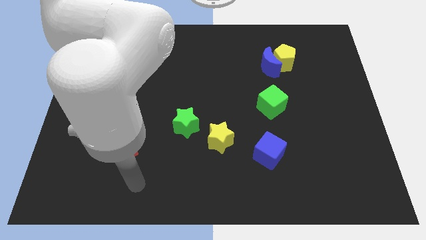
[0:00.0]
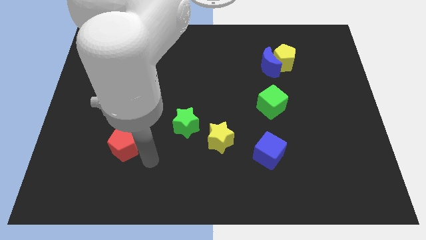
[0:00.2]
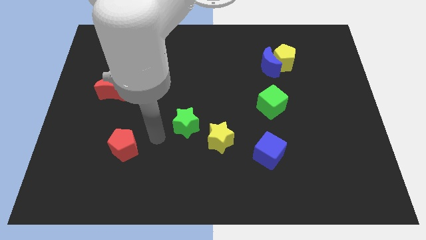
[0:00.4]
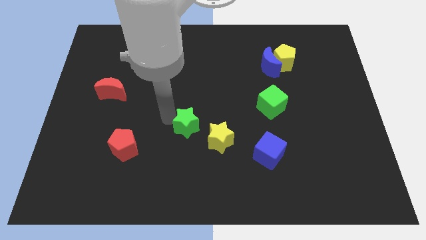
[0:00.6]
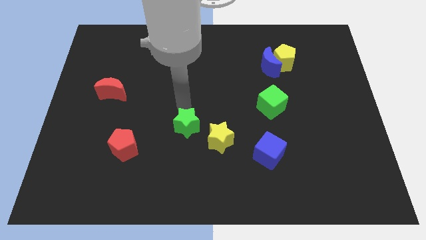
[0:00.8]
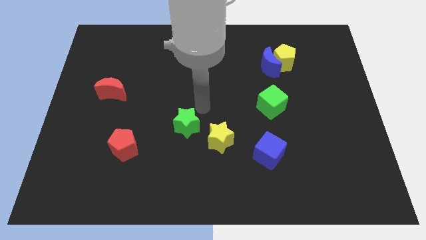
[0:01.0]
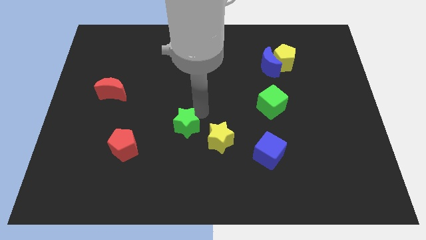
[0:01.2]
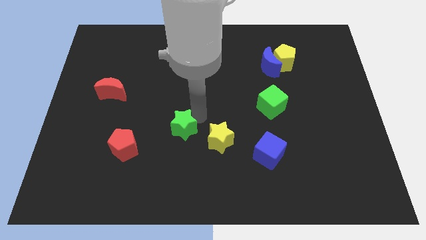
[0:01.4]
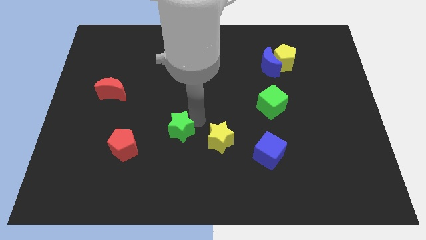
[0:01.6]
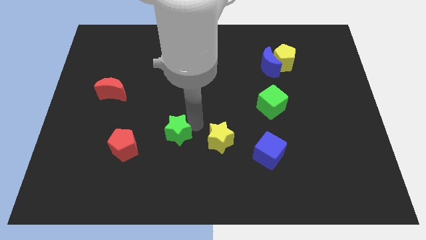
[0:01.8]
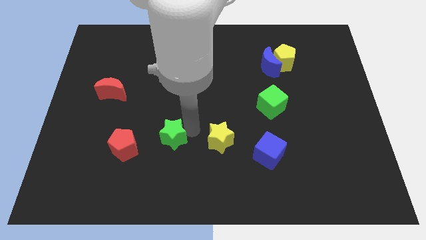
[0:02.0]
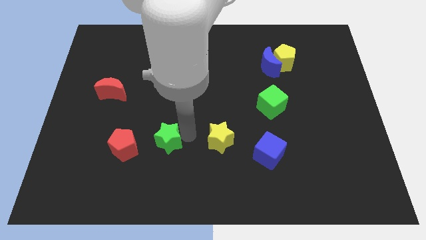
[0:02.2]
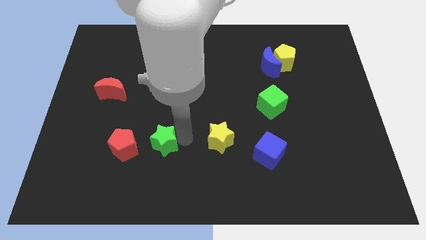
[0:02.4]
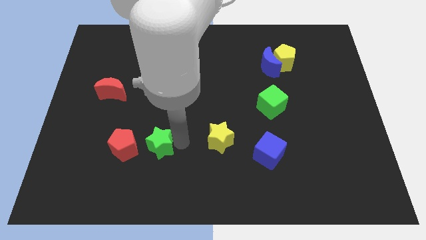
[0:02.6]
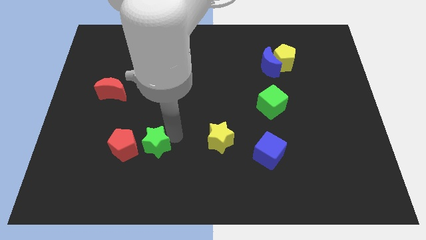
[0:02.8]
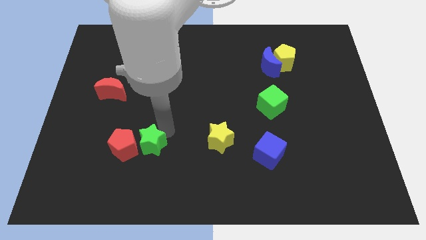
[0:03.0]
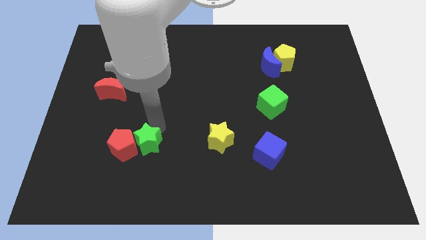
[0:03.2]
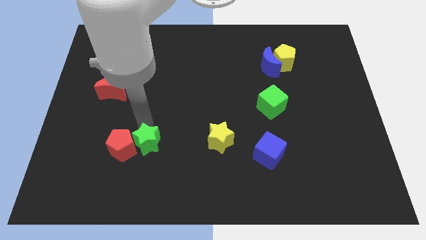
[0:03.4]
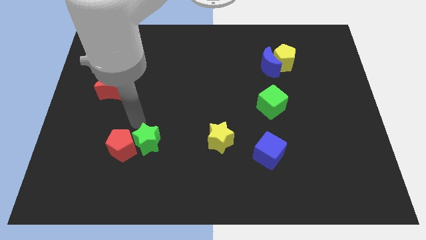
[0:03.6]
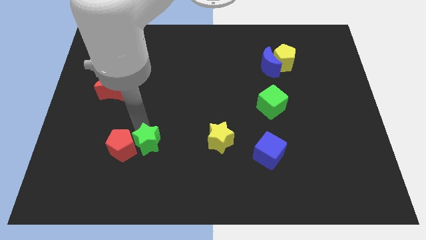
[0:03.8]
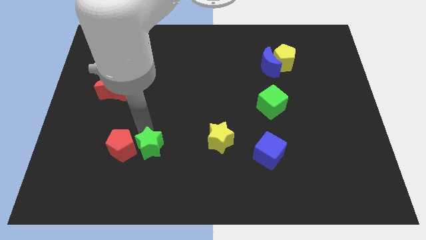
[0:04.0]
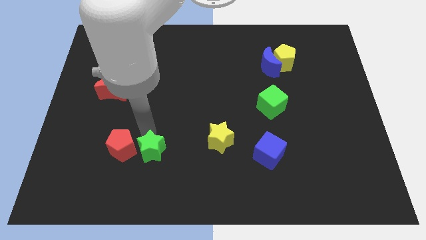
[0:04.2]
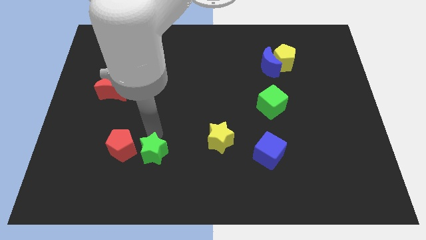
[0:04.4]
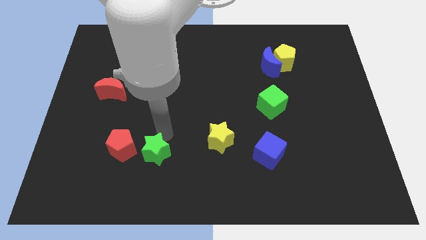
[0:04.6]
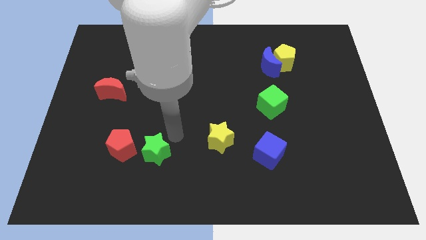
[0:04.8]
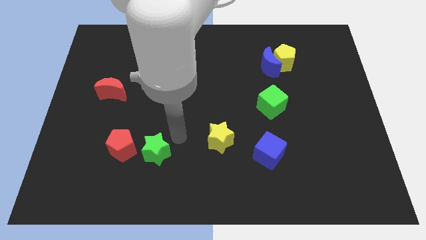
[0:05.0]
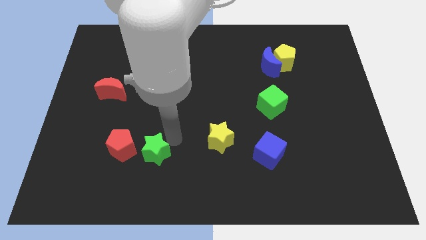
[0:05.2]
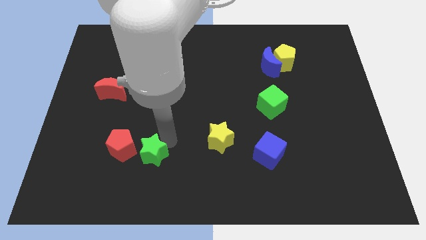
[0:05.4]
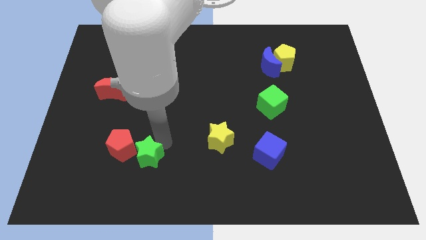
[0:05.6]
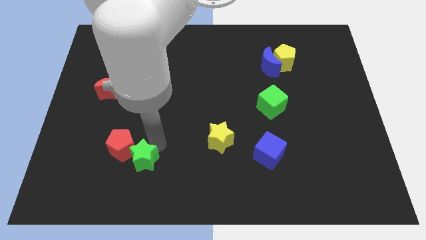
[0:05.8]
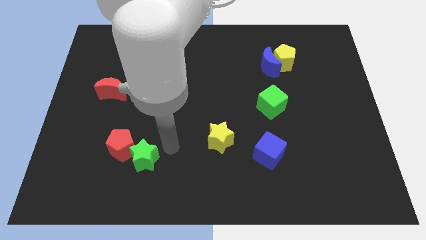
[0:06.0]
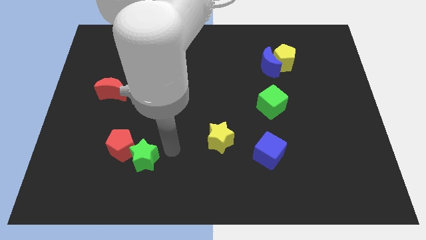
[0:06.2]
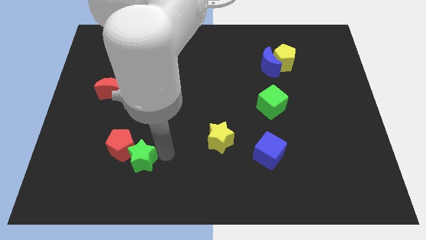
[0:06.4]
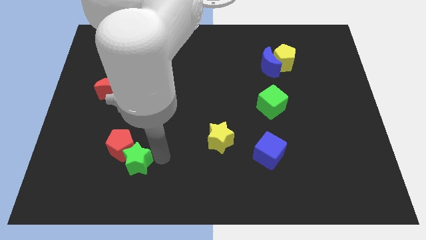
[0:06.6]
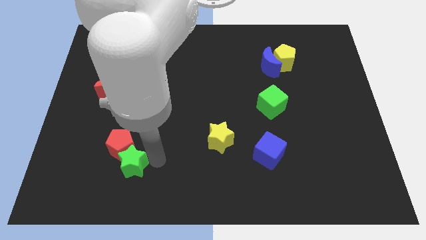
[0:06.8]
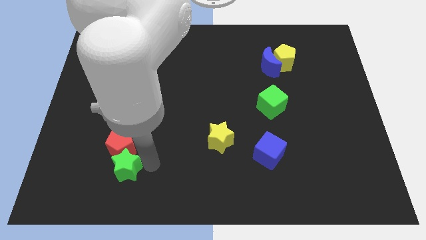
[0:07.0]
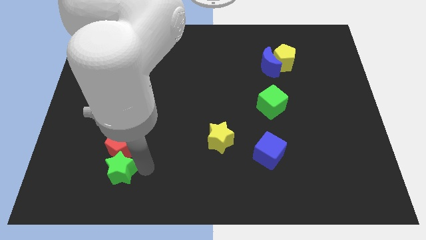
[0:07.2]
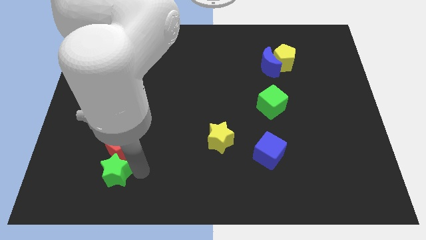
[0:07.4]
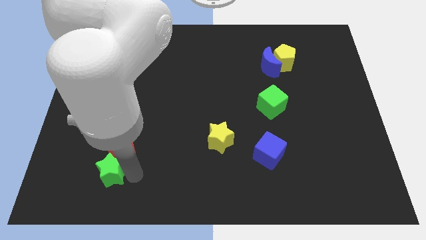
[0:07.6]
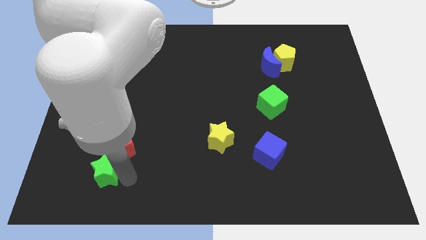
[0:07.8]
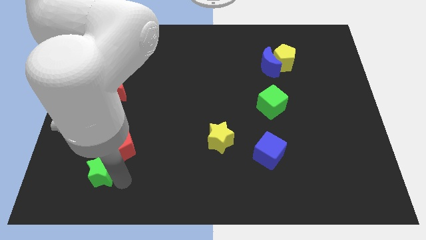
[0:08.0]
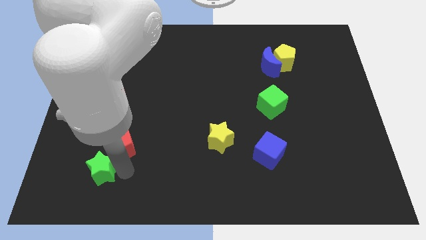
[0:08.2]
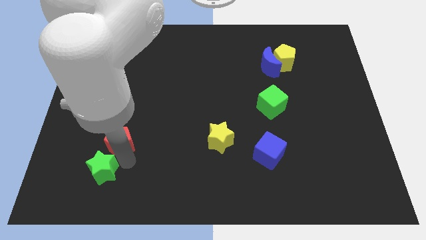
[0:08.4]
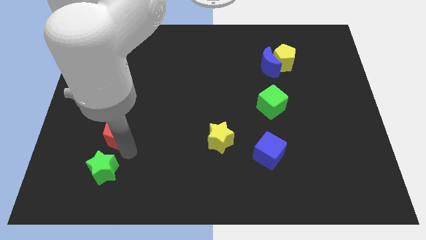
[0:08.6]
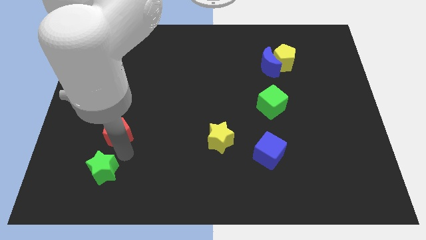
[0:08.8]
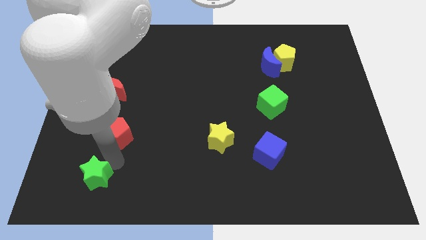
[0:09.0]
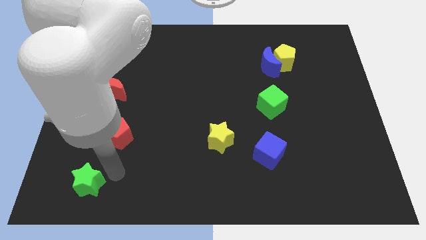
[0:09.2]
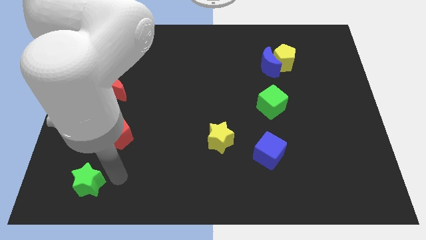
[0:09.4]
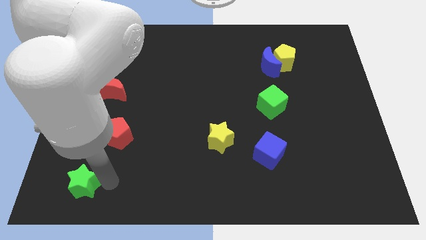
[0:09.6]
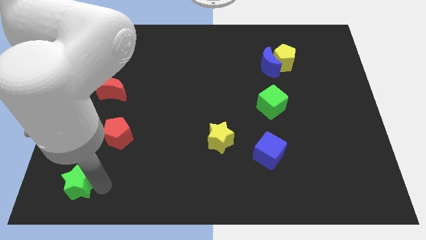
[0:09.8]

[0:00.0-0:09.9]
move the green star to the bottom left of the board

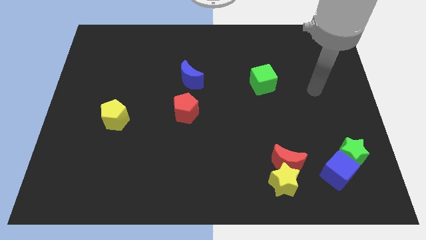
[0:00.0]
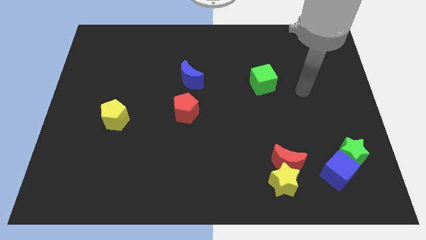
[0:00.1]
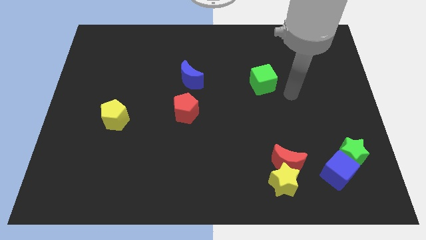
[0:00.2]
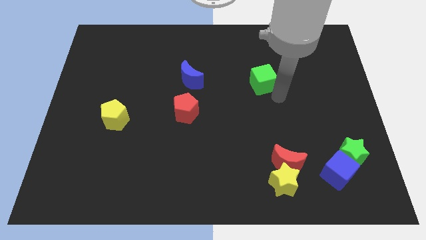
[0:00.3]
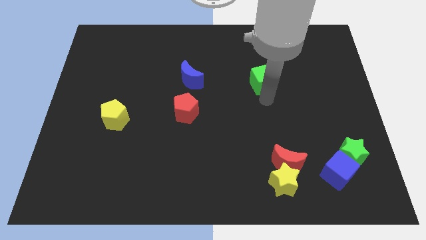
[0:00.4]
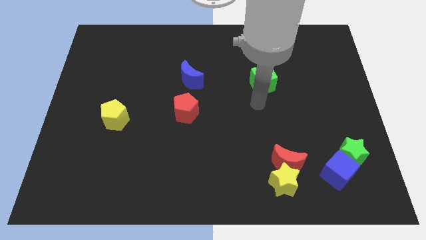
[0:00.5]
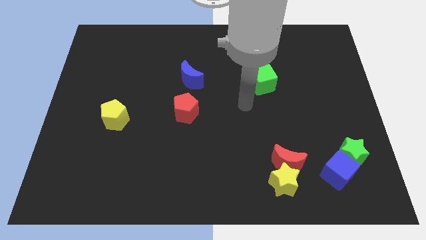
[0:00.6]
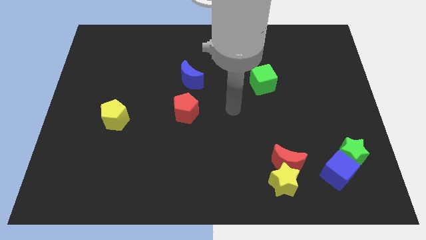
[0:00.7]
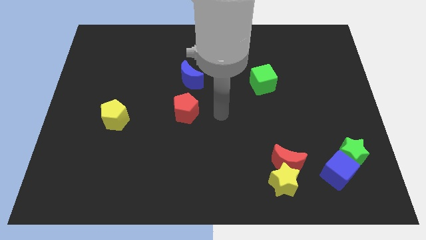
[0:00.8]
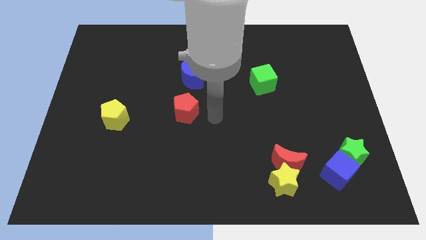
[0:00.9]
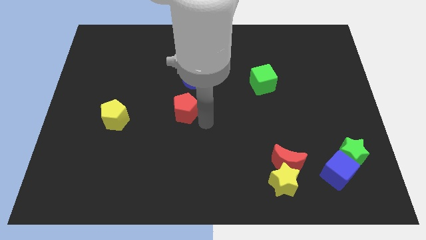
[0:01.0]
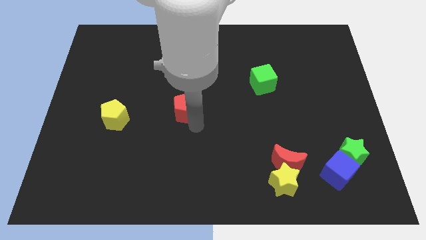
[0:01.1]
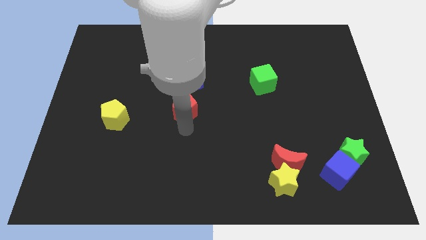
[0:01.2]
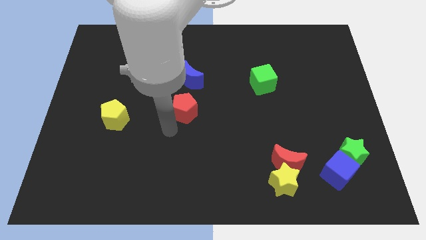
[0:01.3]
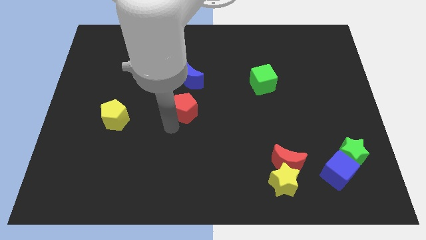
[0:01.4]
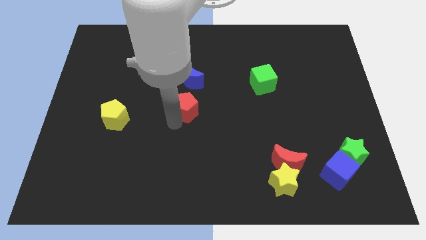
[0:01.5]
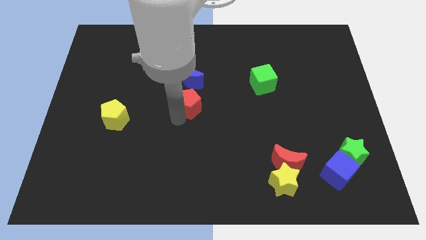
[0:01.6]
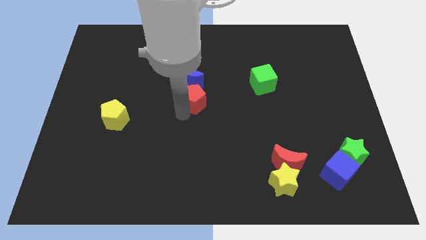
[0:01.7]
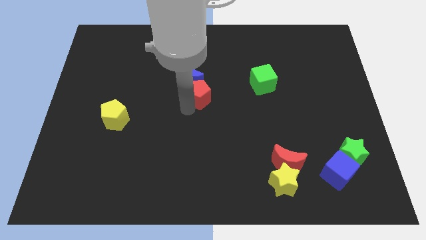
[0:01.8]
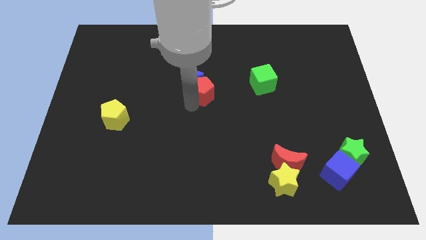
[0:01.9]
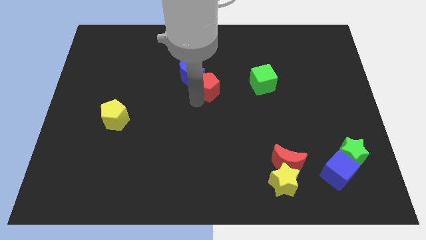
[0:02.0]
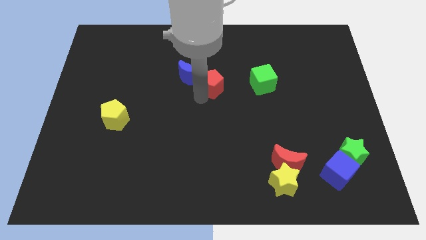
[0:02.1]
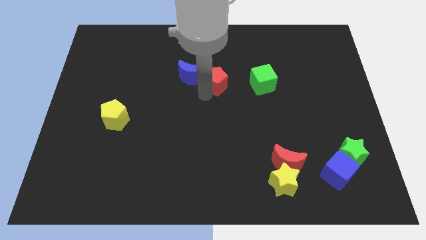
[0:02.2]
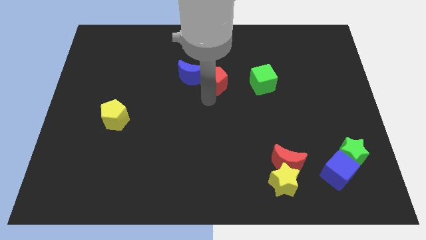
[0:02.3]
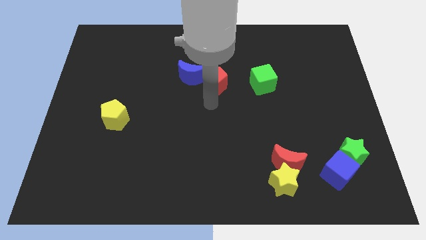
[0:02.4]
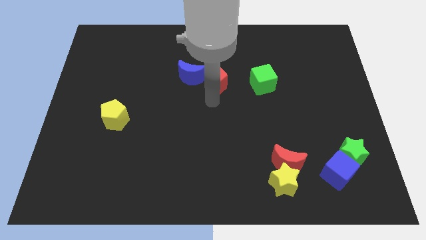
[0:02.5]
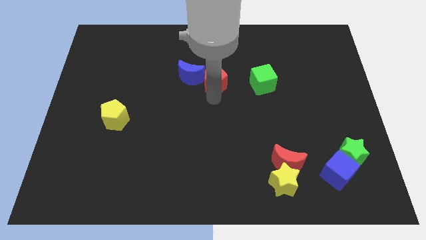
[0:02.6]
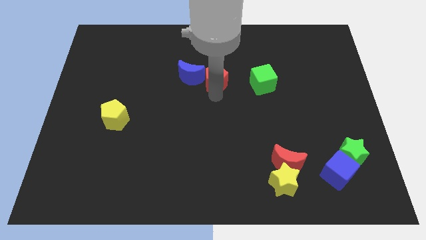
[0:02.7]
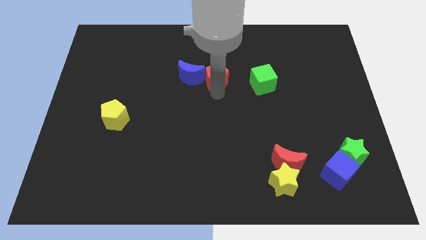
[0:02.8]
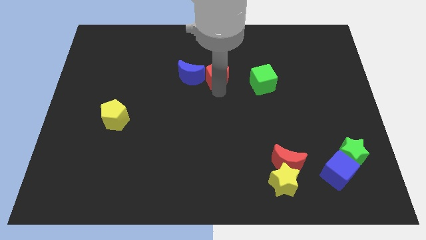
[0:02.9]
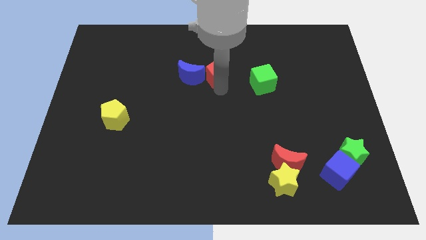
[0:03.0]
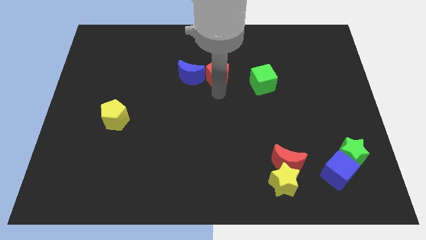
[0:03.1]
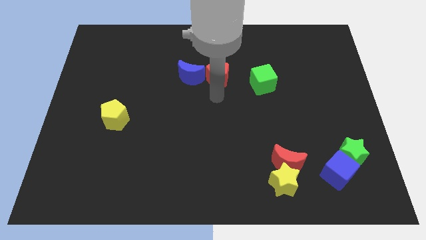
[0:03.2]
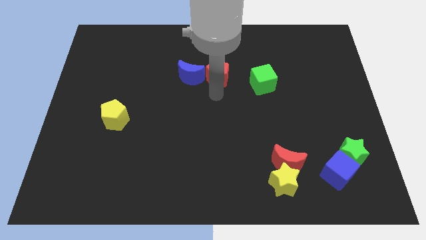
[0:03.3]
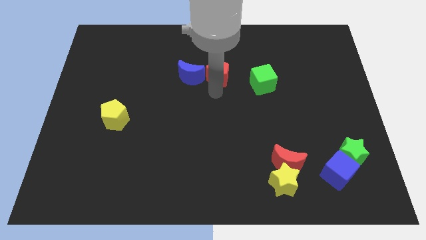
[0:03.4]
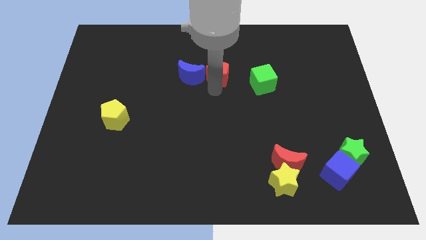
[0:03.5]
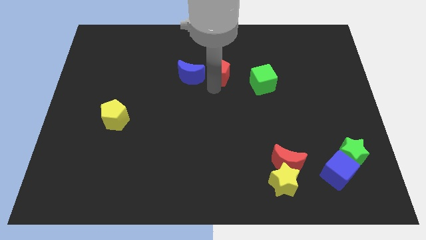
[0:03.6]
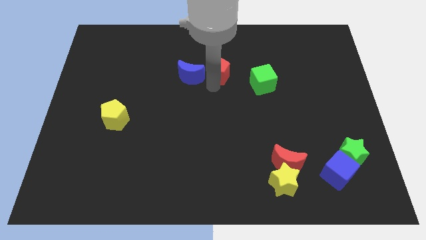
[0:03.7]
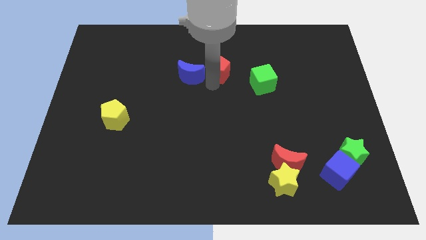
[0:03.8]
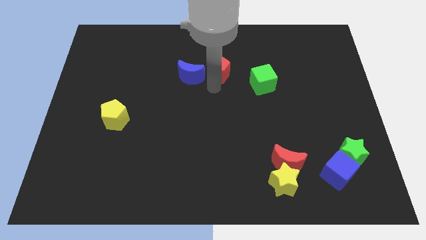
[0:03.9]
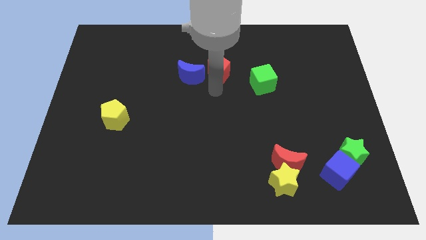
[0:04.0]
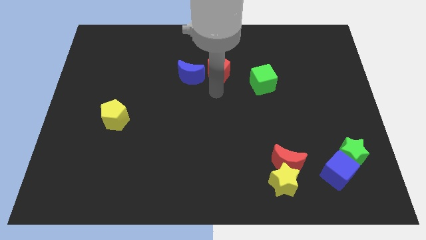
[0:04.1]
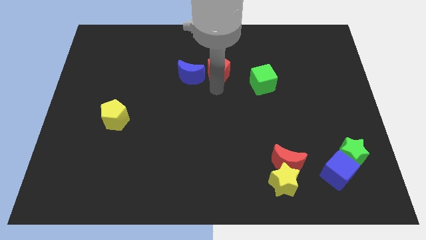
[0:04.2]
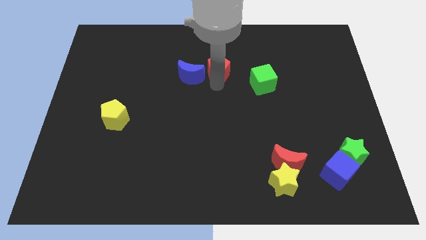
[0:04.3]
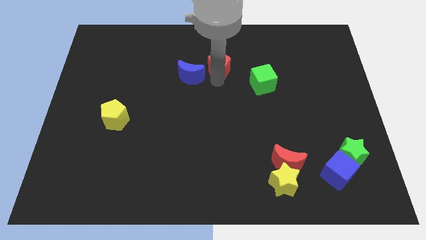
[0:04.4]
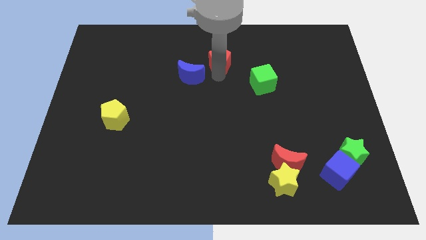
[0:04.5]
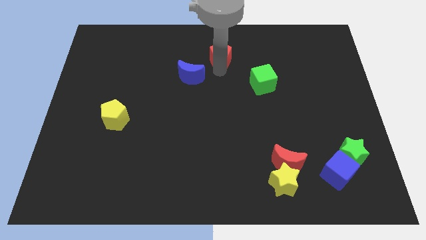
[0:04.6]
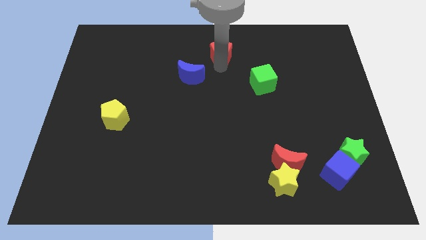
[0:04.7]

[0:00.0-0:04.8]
move the red pentagon to the top
